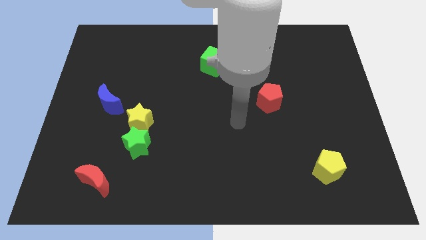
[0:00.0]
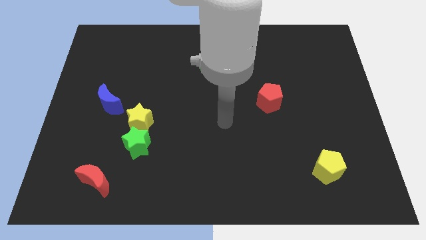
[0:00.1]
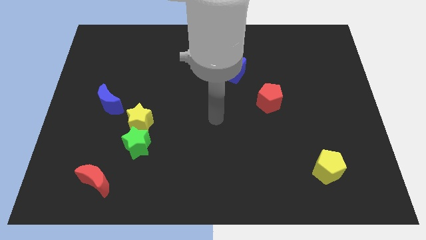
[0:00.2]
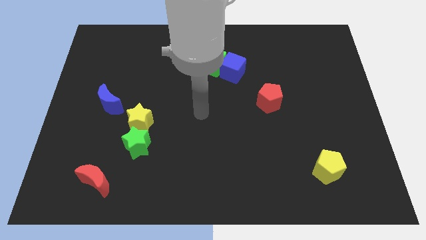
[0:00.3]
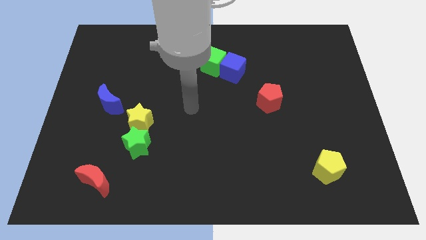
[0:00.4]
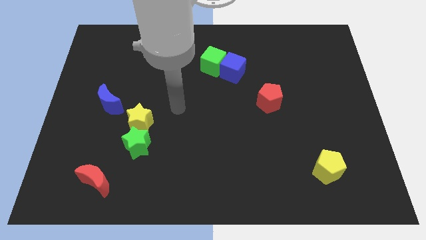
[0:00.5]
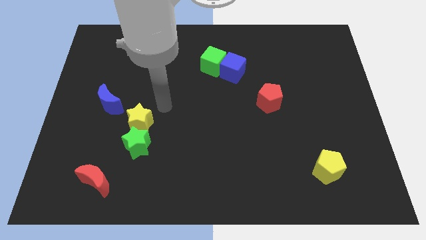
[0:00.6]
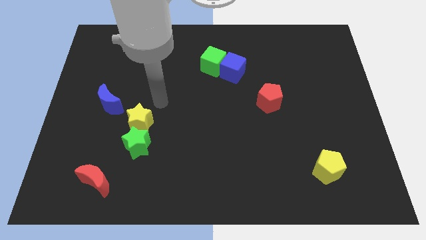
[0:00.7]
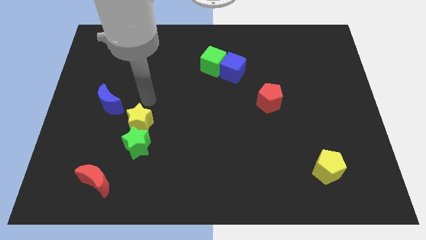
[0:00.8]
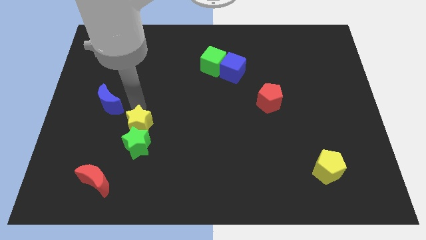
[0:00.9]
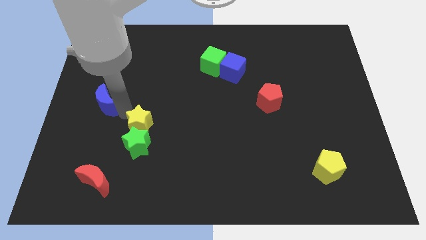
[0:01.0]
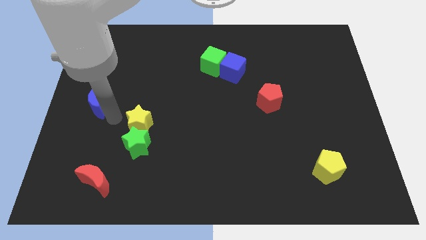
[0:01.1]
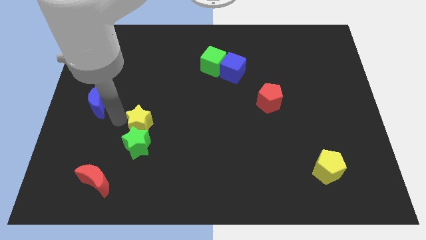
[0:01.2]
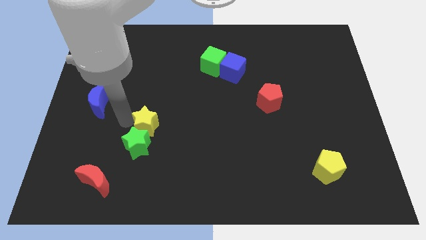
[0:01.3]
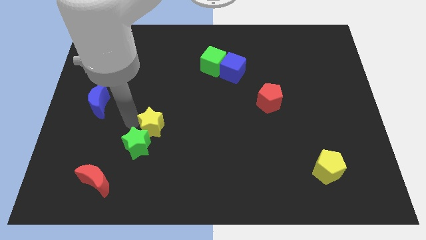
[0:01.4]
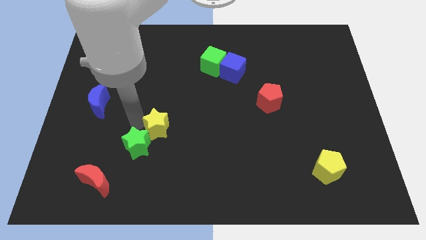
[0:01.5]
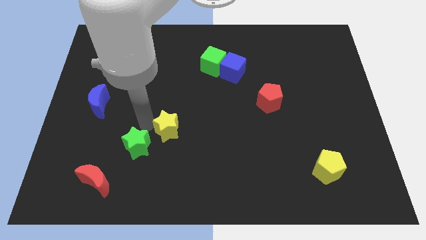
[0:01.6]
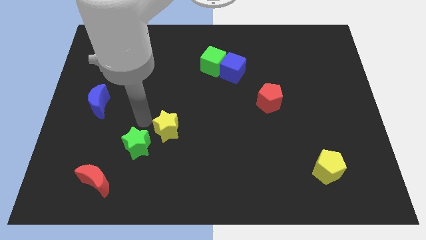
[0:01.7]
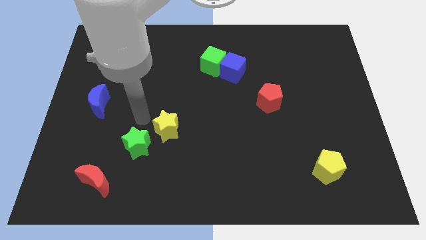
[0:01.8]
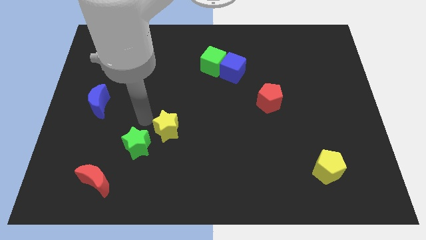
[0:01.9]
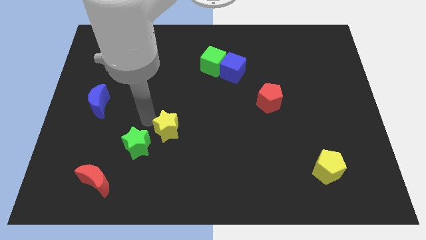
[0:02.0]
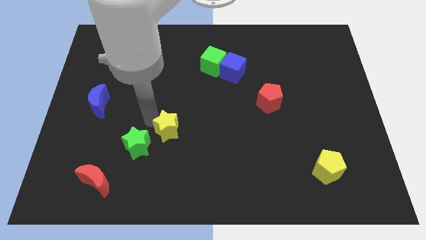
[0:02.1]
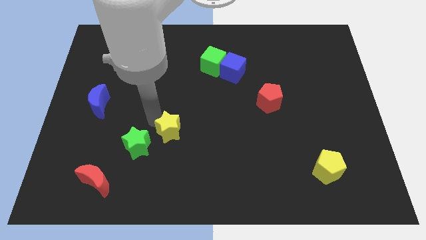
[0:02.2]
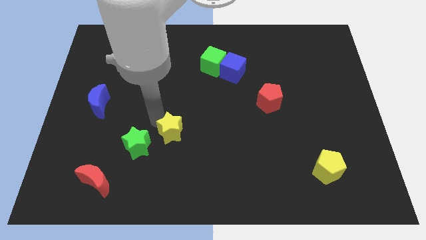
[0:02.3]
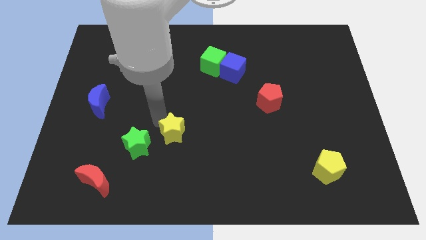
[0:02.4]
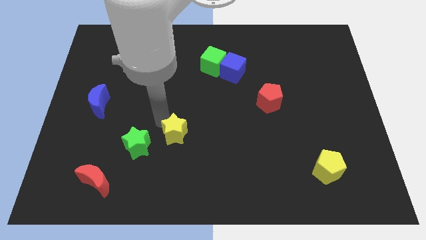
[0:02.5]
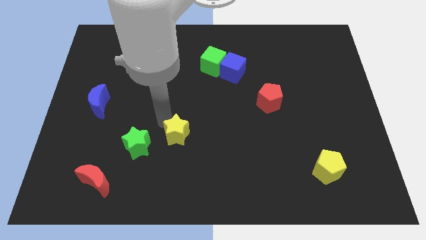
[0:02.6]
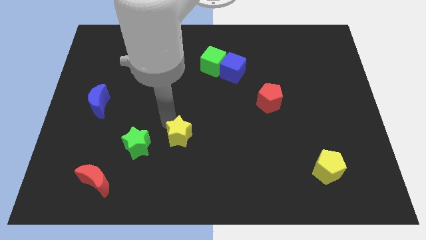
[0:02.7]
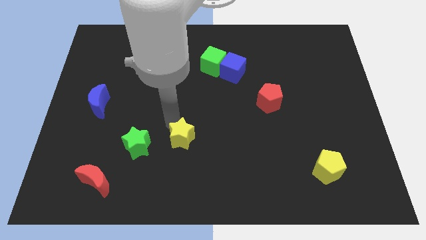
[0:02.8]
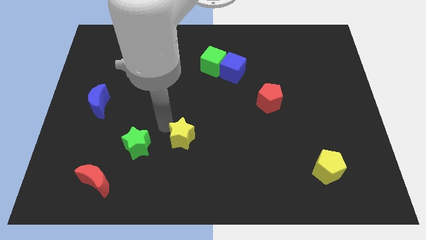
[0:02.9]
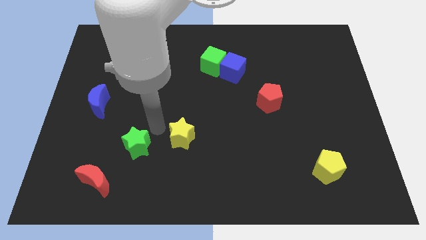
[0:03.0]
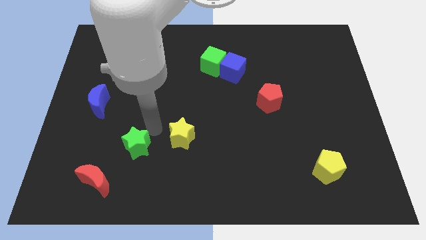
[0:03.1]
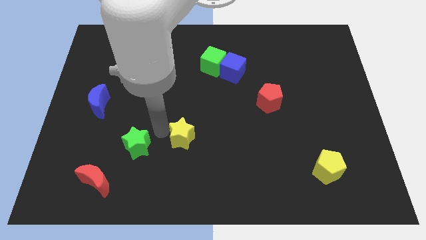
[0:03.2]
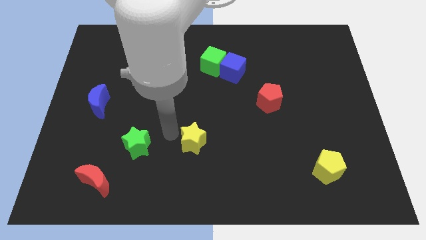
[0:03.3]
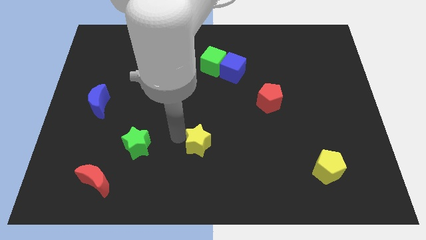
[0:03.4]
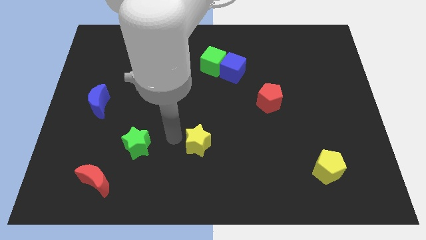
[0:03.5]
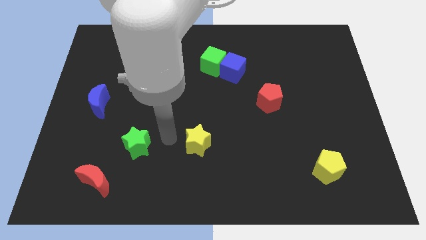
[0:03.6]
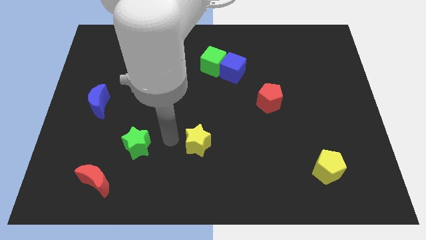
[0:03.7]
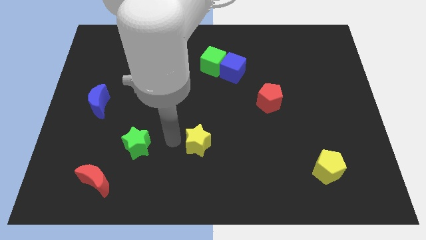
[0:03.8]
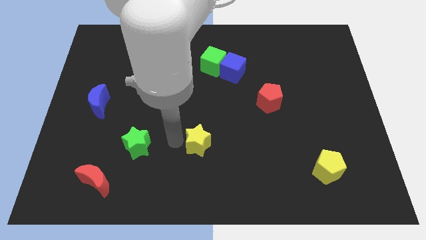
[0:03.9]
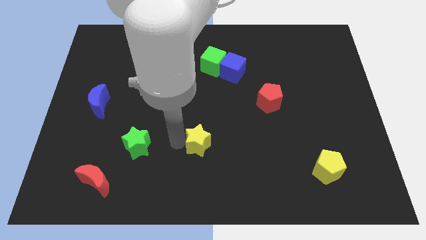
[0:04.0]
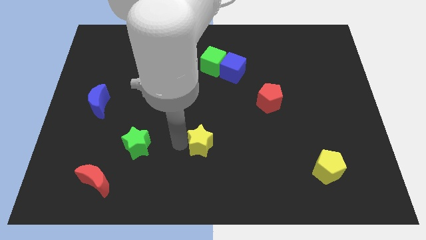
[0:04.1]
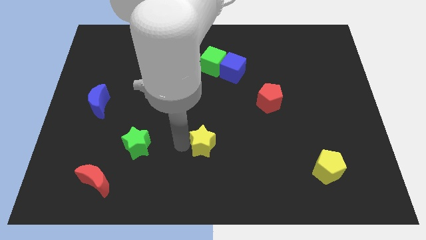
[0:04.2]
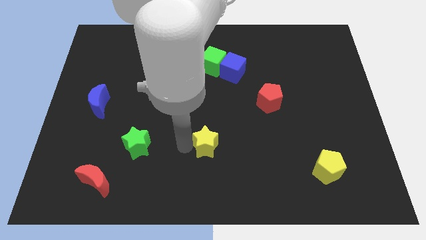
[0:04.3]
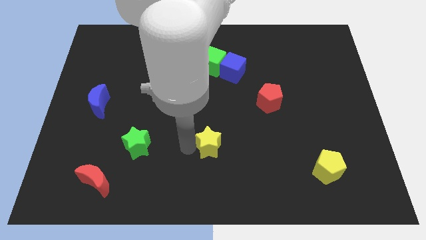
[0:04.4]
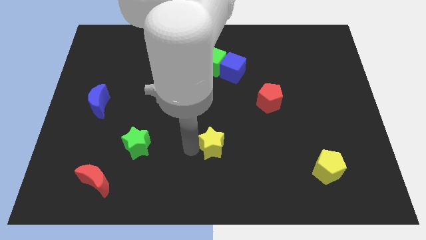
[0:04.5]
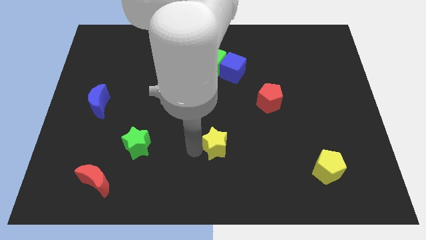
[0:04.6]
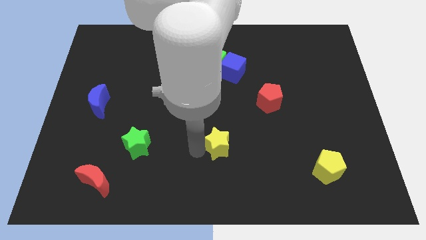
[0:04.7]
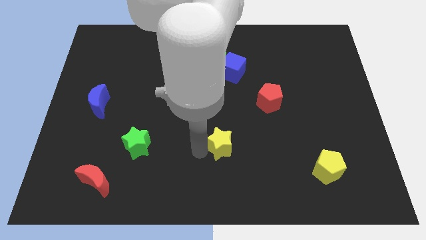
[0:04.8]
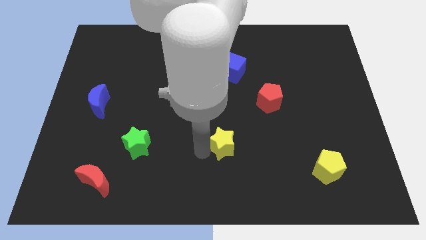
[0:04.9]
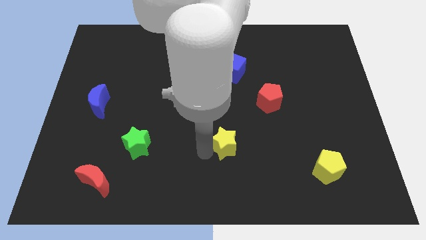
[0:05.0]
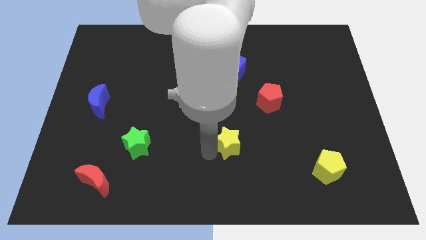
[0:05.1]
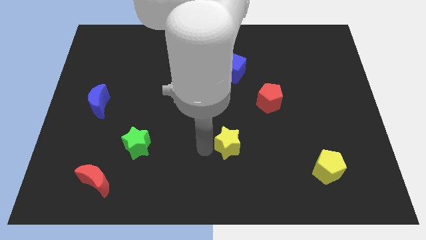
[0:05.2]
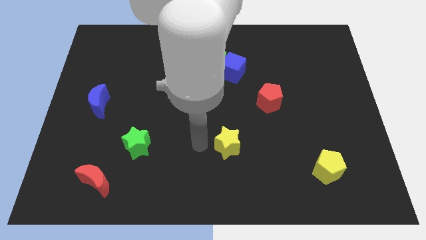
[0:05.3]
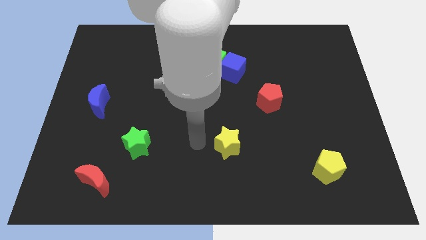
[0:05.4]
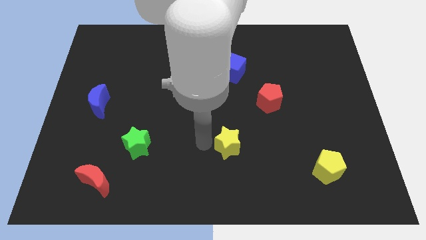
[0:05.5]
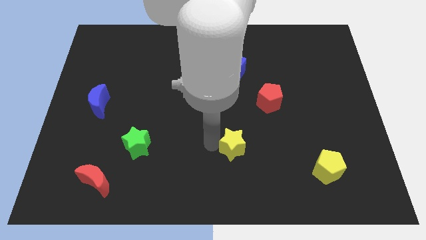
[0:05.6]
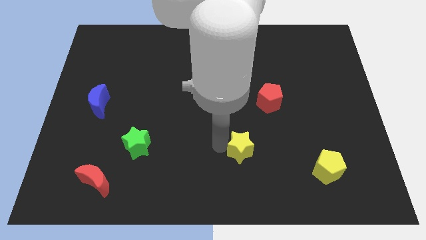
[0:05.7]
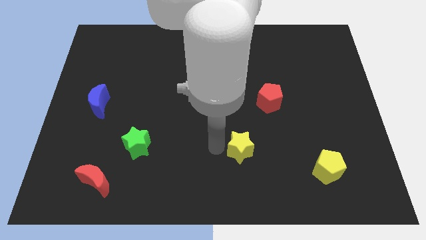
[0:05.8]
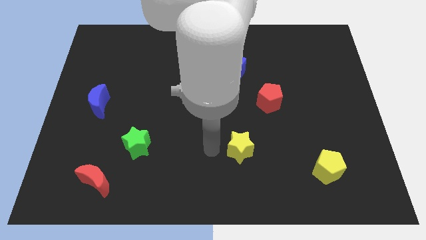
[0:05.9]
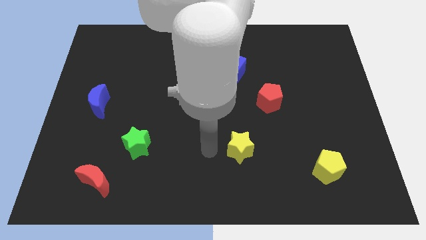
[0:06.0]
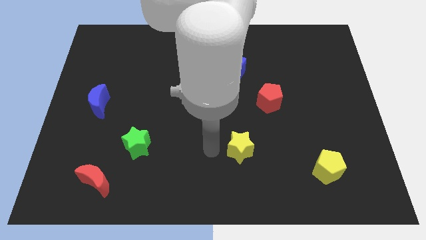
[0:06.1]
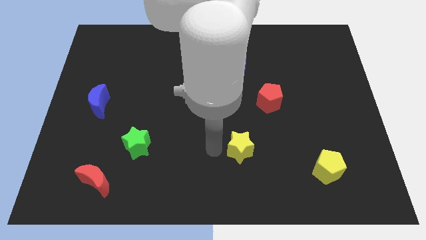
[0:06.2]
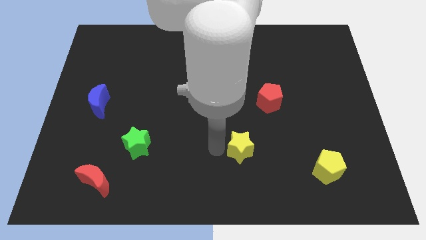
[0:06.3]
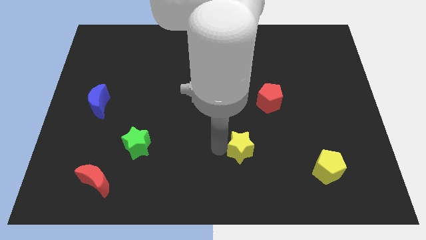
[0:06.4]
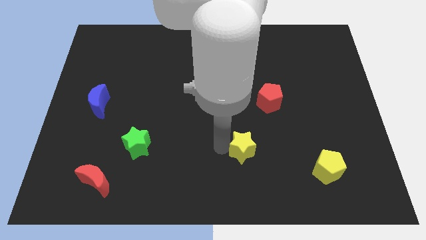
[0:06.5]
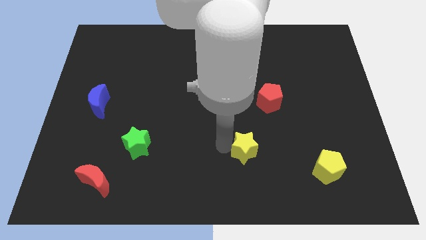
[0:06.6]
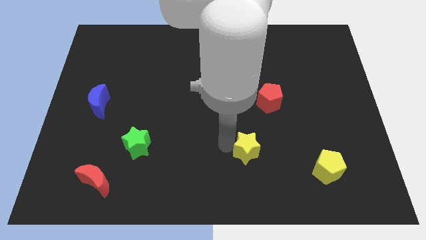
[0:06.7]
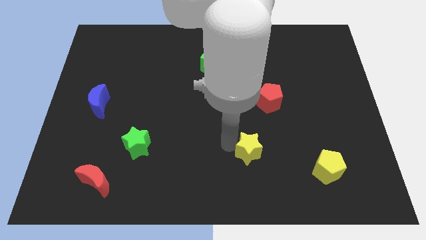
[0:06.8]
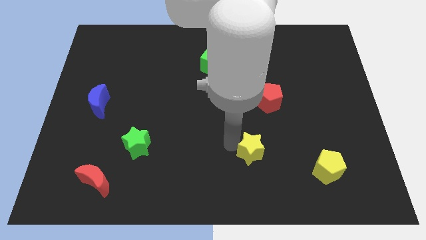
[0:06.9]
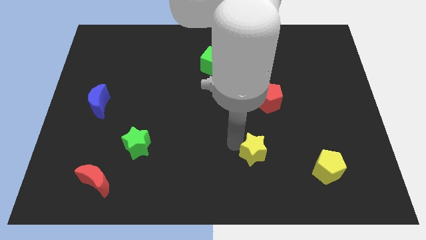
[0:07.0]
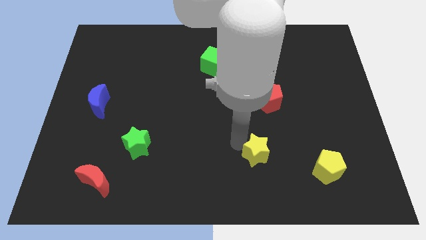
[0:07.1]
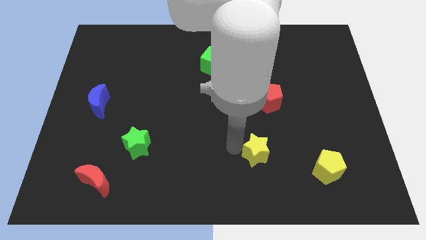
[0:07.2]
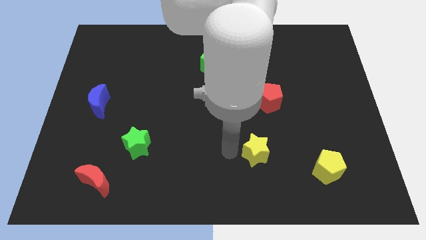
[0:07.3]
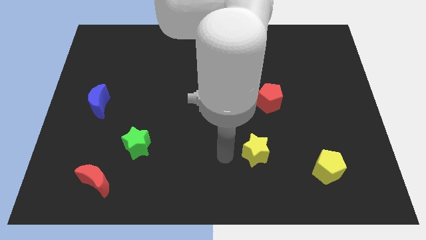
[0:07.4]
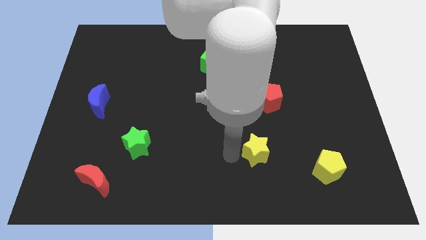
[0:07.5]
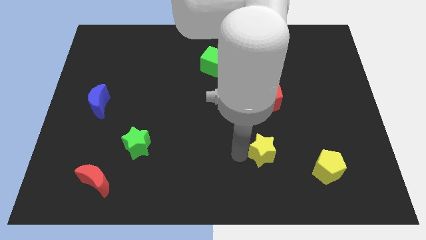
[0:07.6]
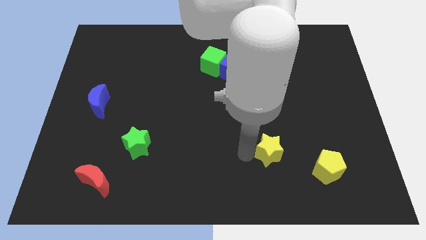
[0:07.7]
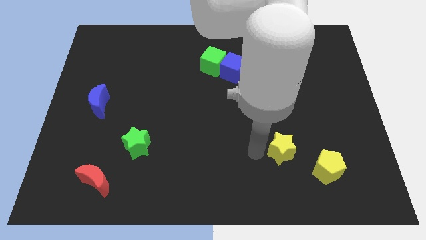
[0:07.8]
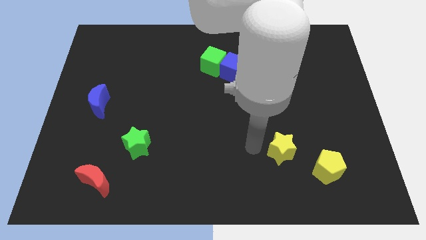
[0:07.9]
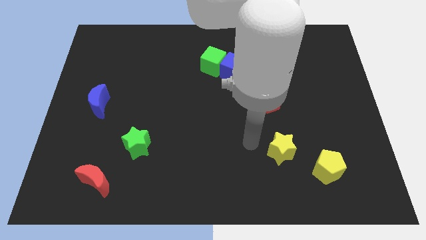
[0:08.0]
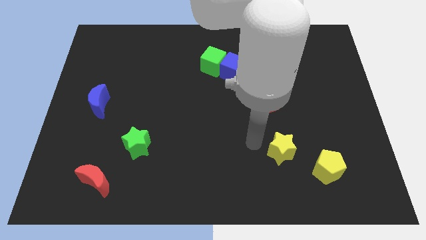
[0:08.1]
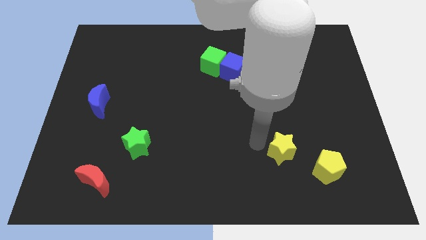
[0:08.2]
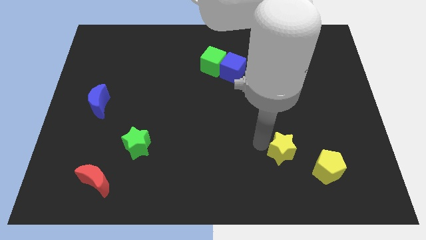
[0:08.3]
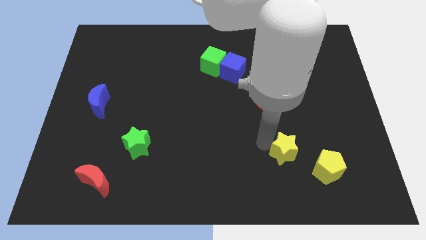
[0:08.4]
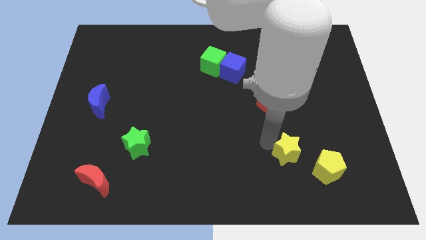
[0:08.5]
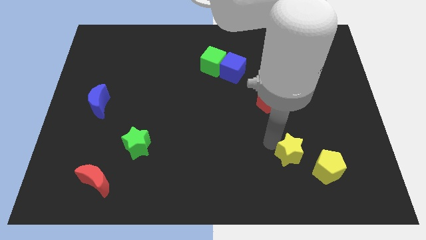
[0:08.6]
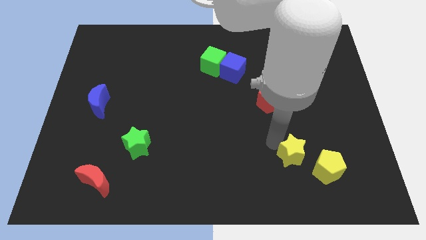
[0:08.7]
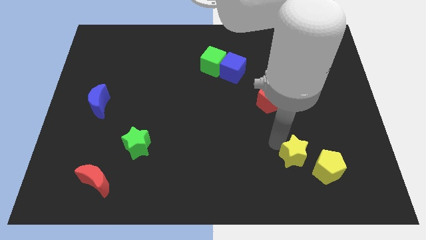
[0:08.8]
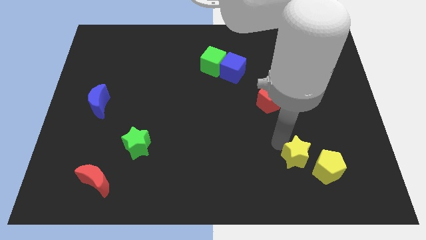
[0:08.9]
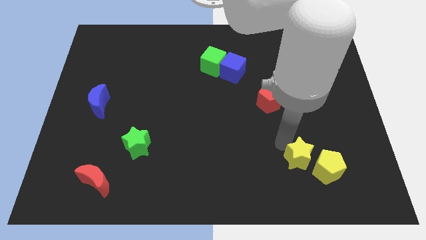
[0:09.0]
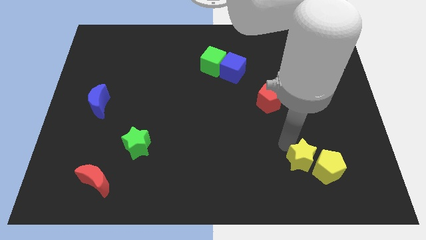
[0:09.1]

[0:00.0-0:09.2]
put the yellow star close to the yellow pentagon
